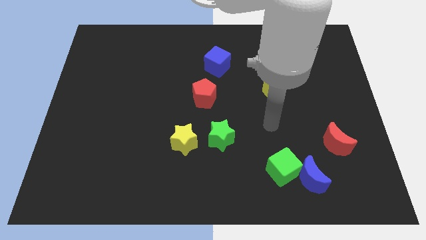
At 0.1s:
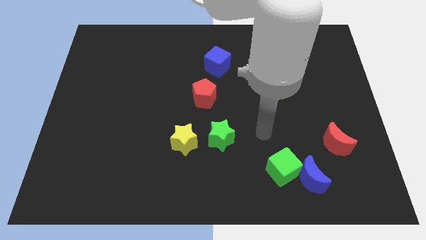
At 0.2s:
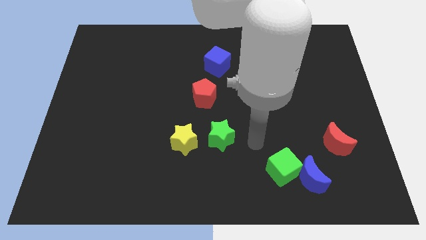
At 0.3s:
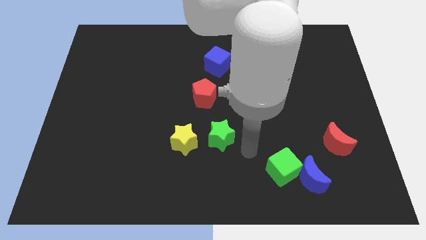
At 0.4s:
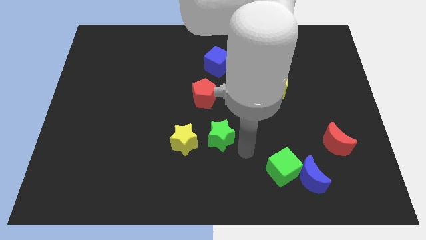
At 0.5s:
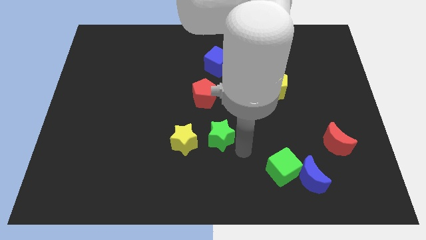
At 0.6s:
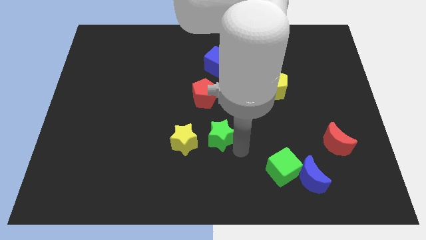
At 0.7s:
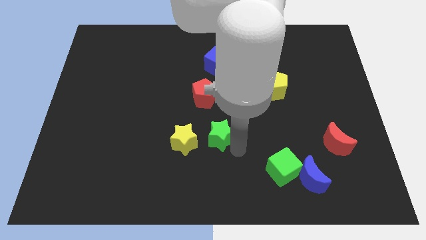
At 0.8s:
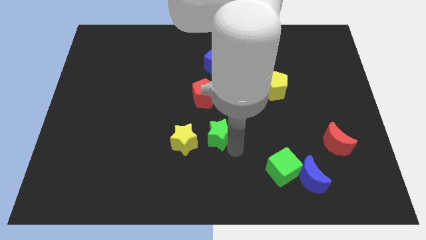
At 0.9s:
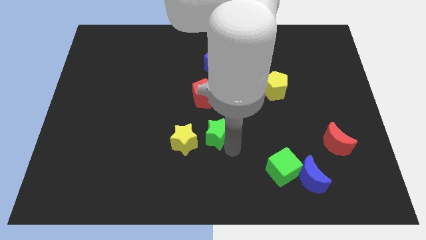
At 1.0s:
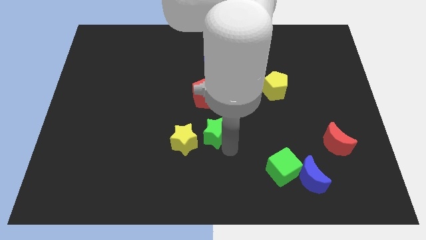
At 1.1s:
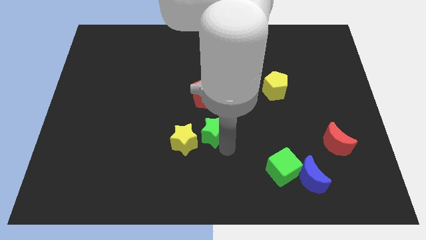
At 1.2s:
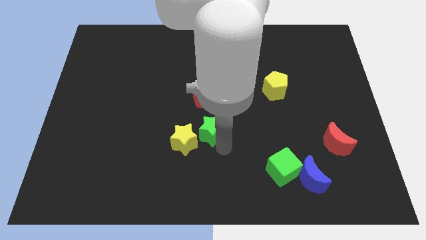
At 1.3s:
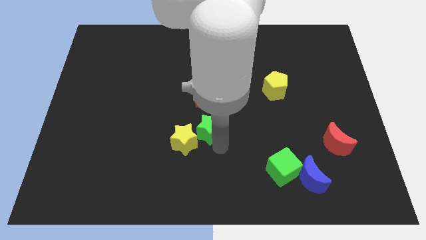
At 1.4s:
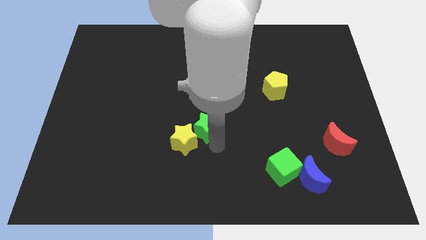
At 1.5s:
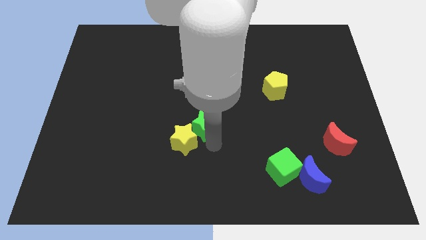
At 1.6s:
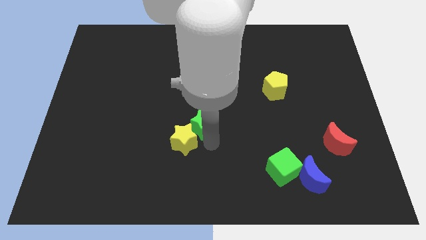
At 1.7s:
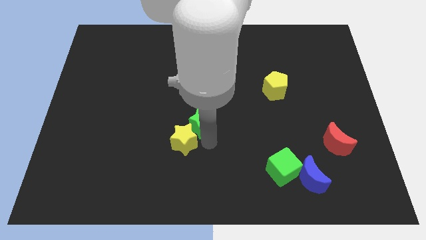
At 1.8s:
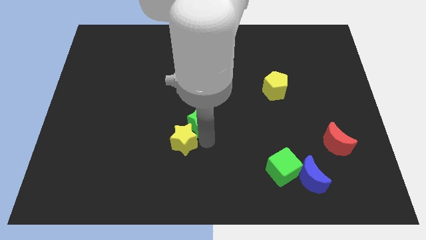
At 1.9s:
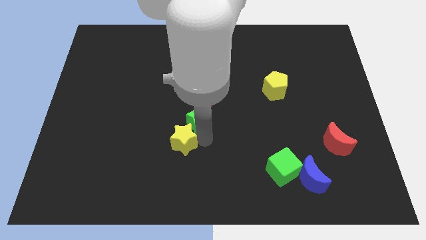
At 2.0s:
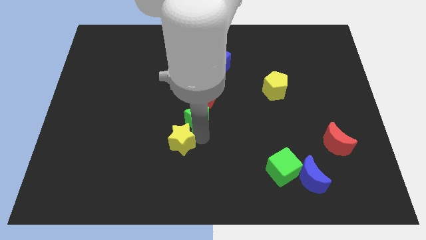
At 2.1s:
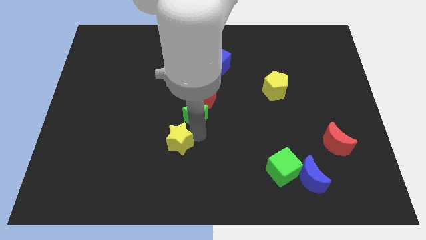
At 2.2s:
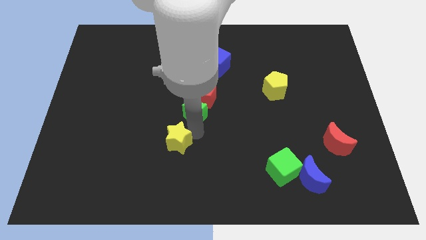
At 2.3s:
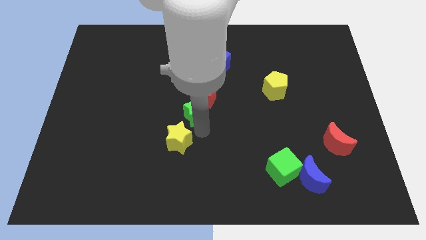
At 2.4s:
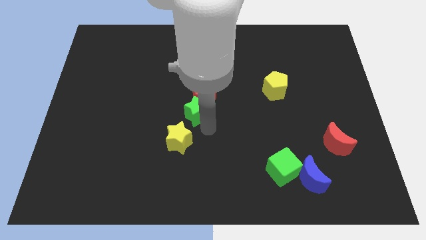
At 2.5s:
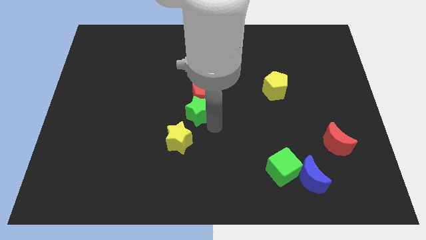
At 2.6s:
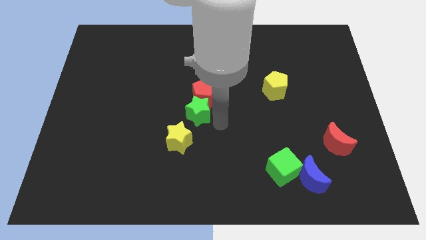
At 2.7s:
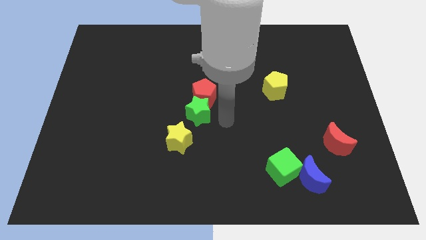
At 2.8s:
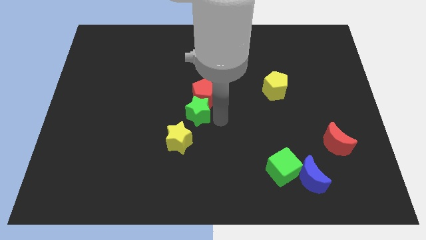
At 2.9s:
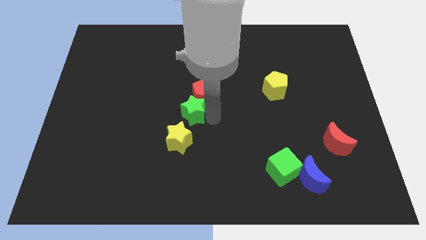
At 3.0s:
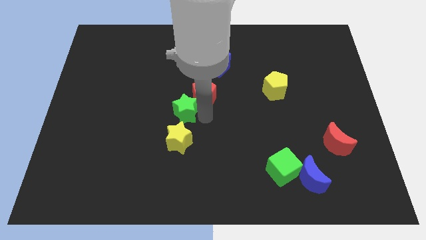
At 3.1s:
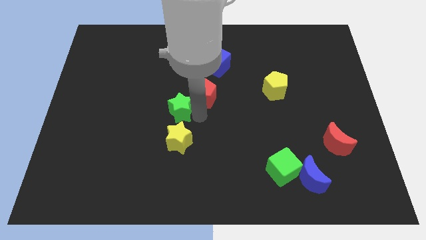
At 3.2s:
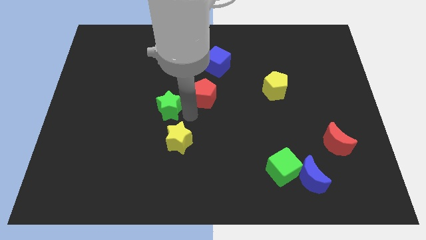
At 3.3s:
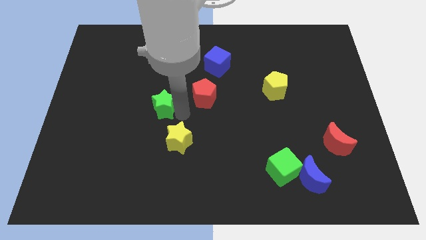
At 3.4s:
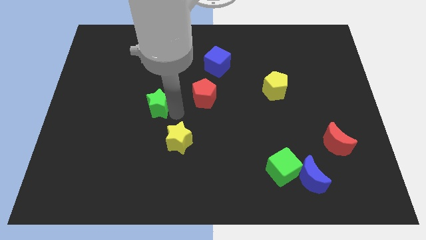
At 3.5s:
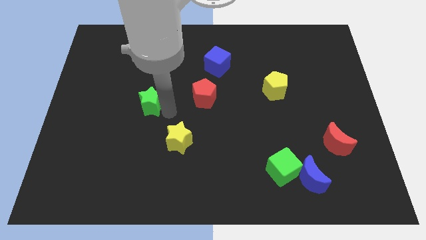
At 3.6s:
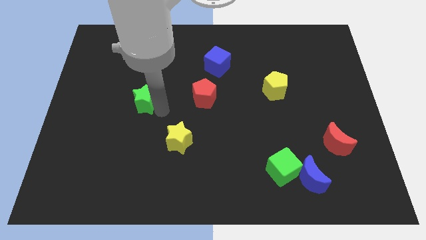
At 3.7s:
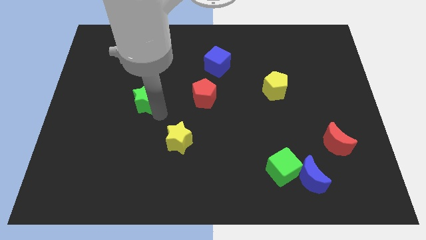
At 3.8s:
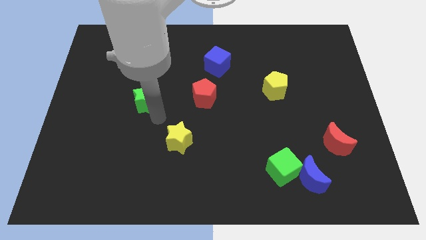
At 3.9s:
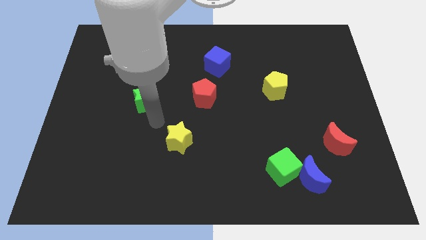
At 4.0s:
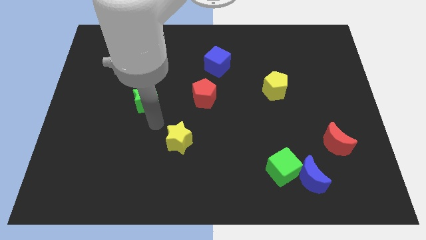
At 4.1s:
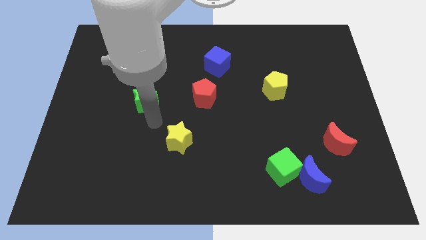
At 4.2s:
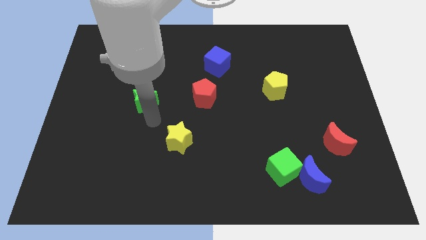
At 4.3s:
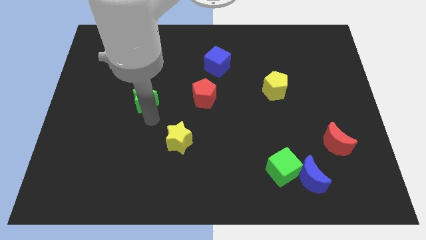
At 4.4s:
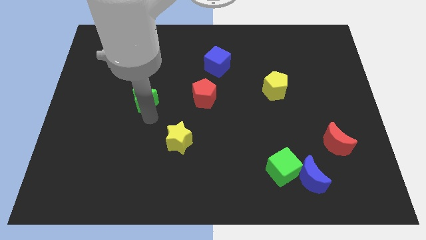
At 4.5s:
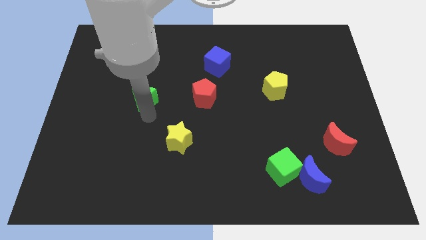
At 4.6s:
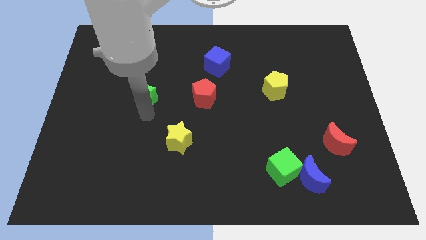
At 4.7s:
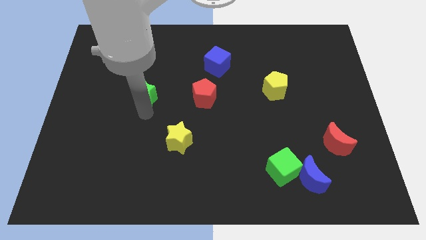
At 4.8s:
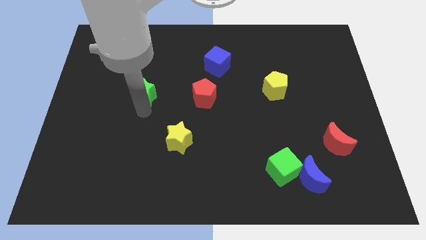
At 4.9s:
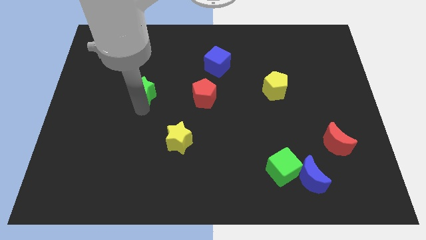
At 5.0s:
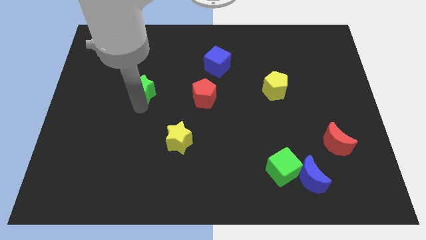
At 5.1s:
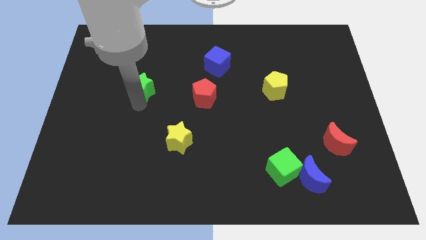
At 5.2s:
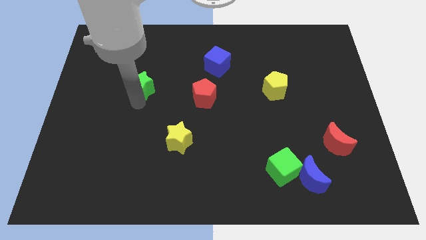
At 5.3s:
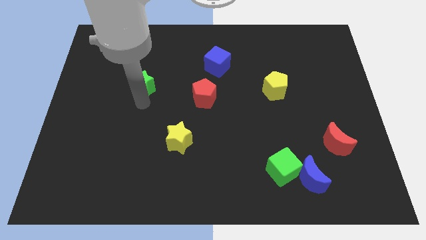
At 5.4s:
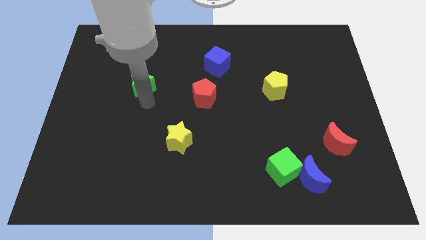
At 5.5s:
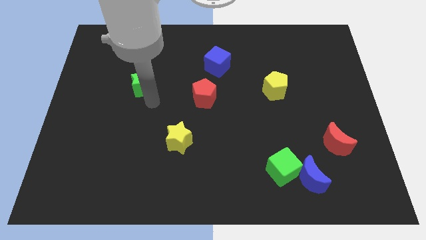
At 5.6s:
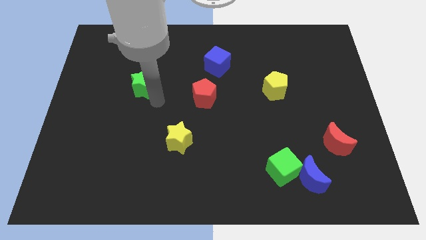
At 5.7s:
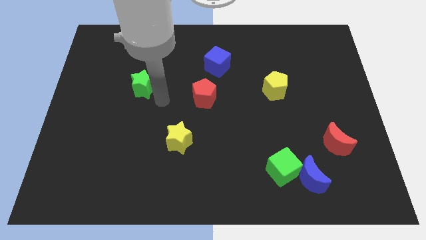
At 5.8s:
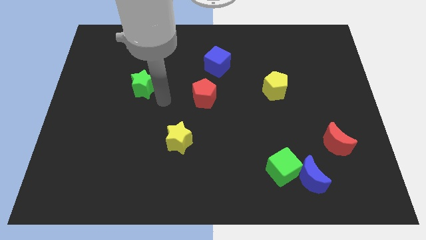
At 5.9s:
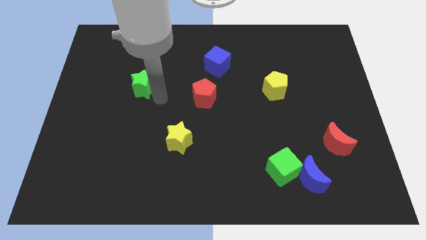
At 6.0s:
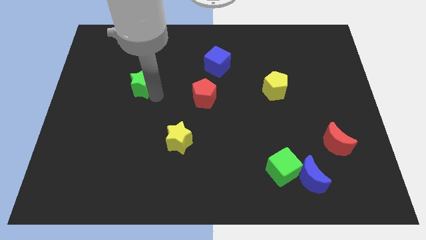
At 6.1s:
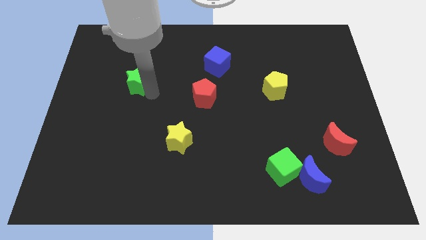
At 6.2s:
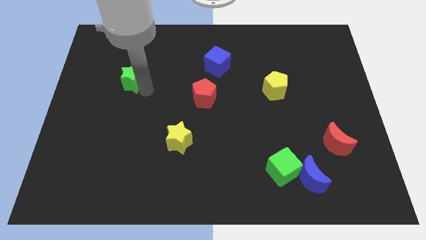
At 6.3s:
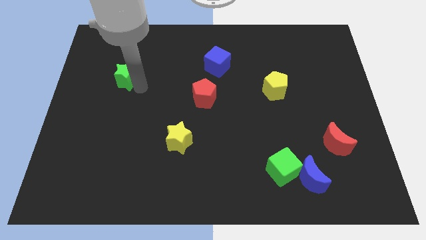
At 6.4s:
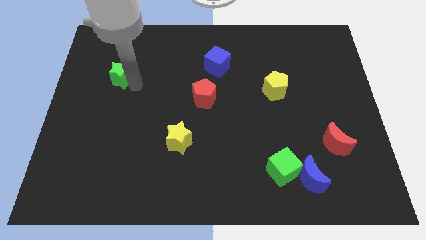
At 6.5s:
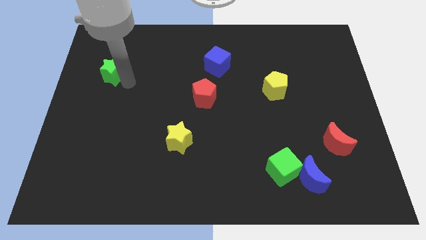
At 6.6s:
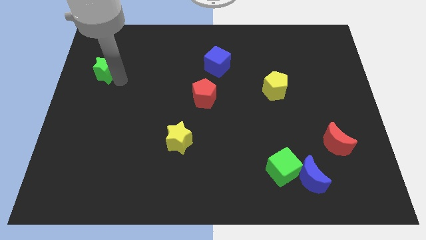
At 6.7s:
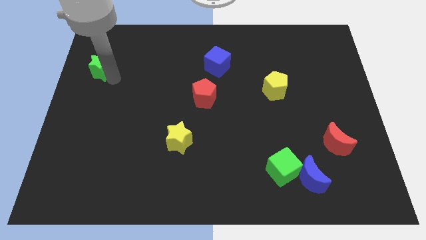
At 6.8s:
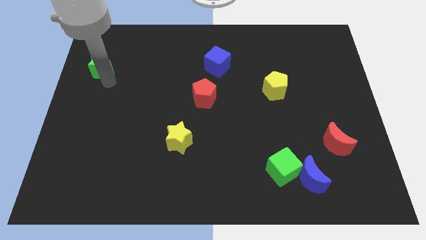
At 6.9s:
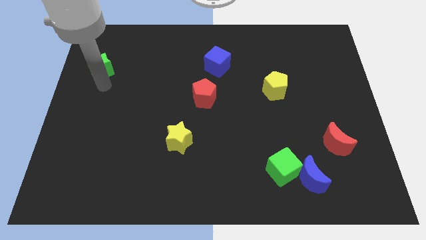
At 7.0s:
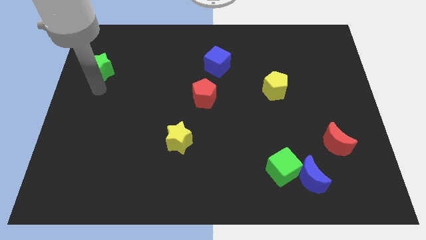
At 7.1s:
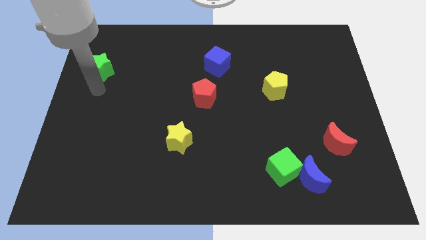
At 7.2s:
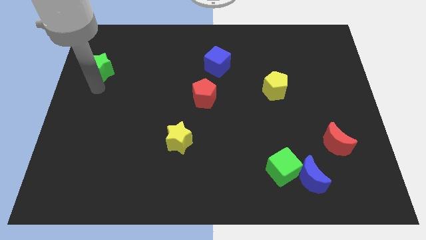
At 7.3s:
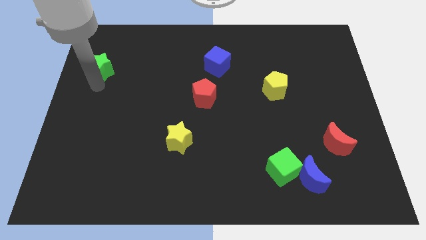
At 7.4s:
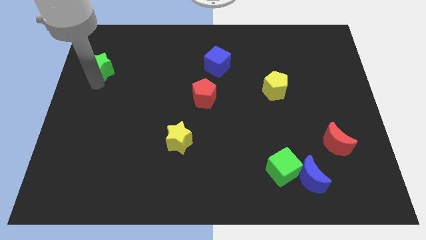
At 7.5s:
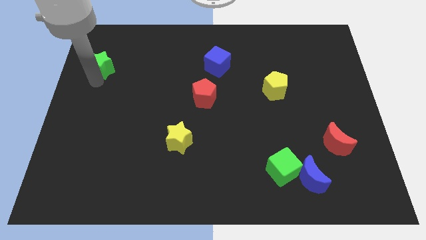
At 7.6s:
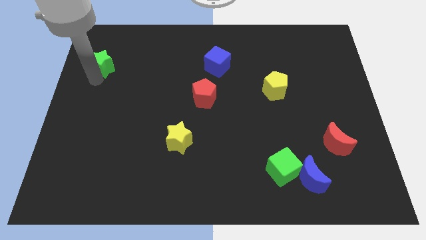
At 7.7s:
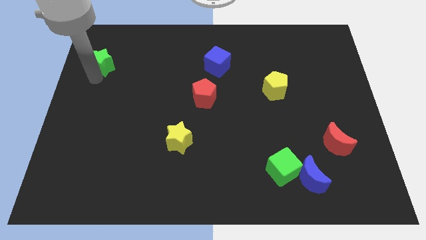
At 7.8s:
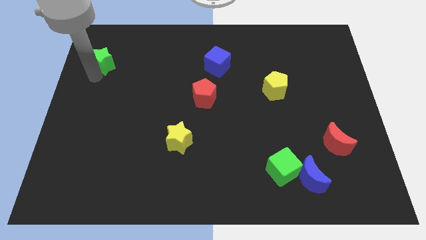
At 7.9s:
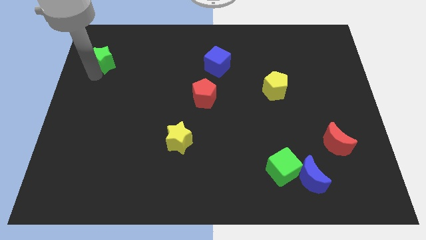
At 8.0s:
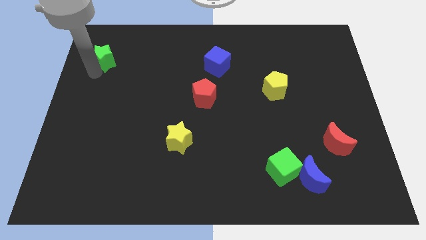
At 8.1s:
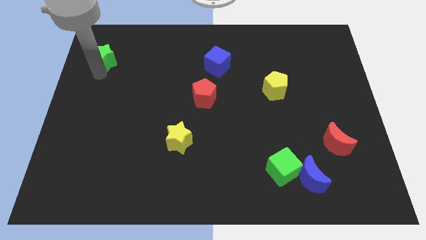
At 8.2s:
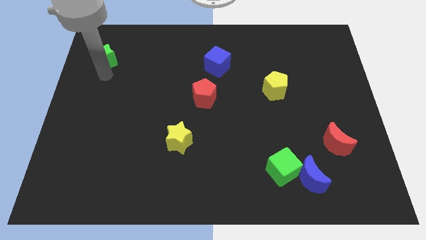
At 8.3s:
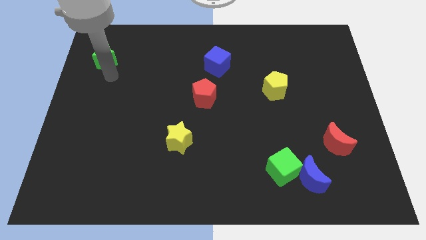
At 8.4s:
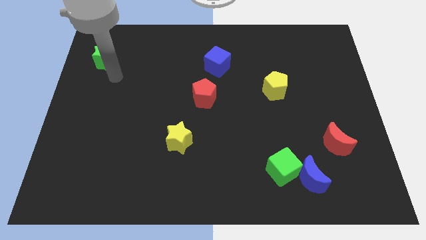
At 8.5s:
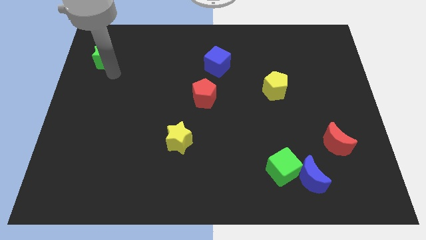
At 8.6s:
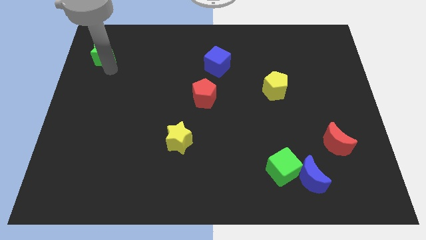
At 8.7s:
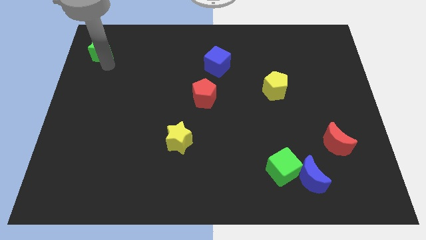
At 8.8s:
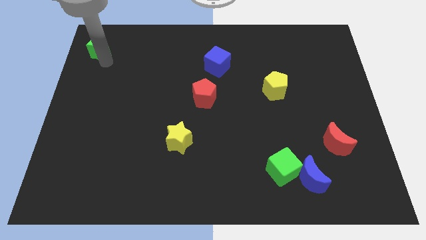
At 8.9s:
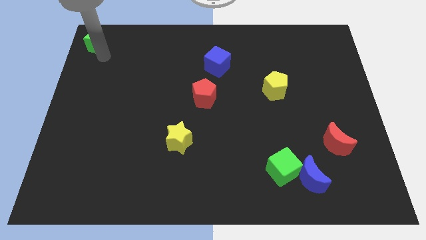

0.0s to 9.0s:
slide the green star to the upper left corner
